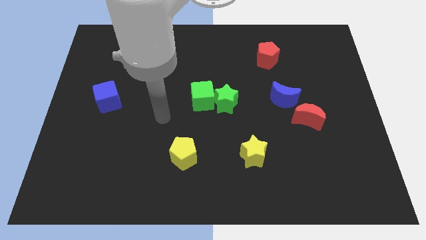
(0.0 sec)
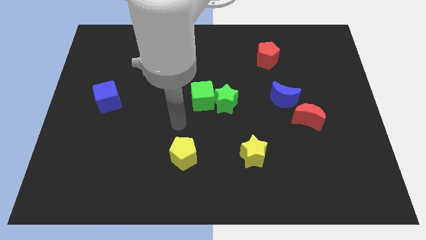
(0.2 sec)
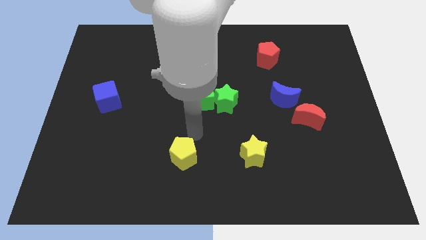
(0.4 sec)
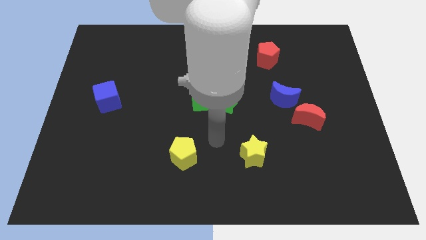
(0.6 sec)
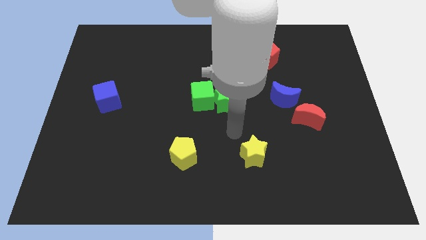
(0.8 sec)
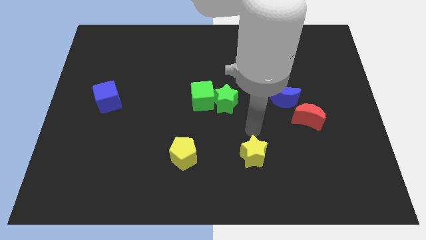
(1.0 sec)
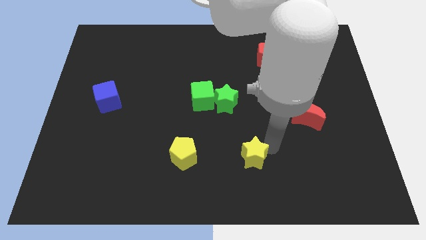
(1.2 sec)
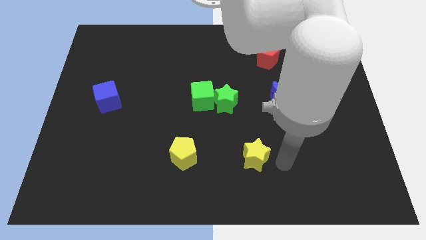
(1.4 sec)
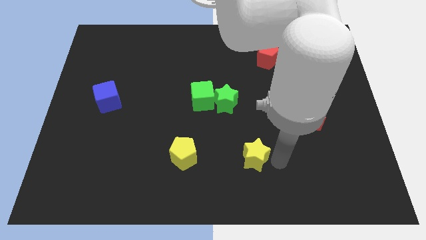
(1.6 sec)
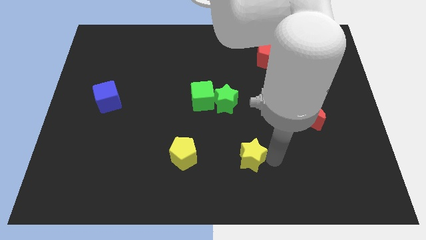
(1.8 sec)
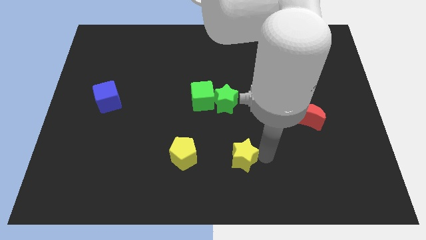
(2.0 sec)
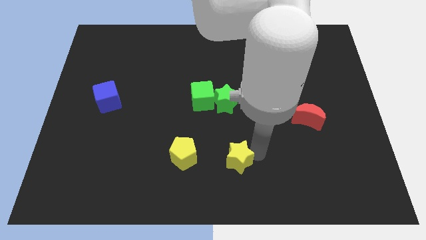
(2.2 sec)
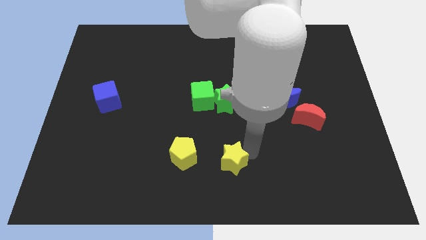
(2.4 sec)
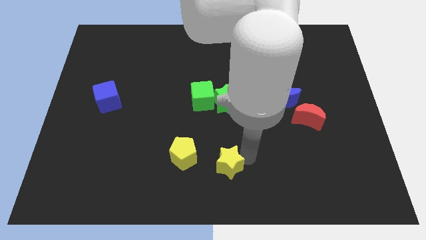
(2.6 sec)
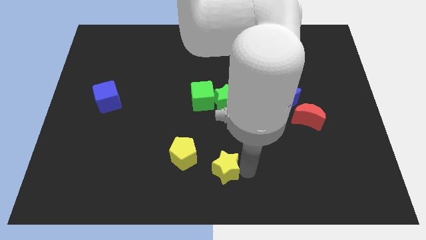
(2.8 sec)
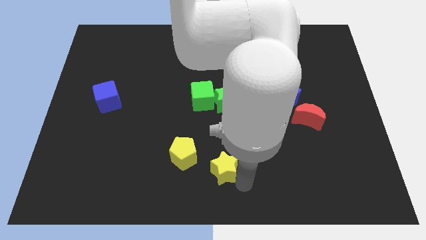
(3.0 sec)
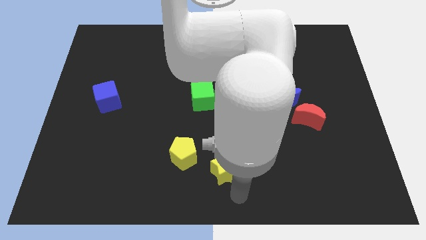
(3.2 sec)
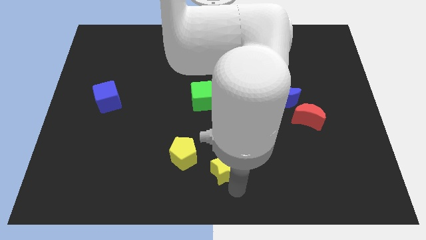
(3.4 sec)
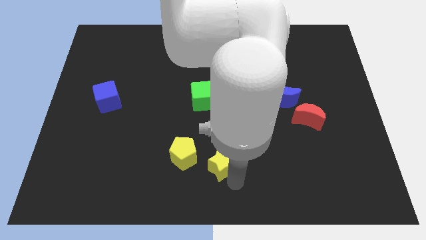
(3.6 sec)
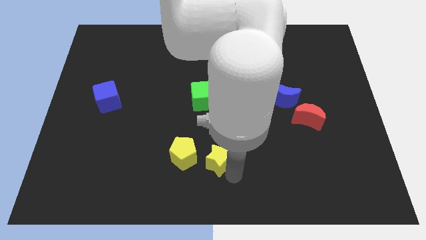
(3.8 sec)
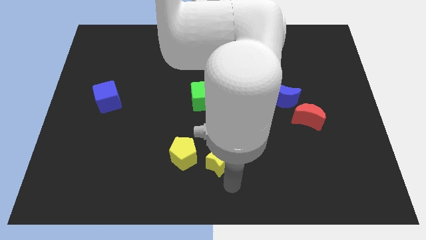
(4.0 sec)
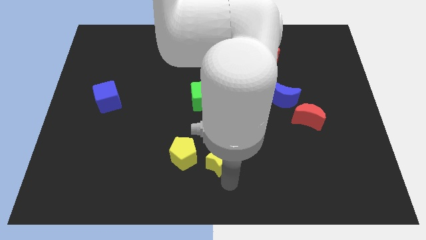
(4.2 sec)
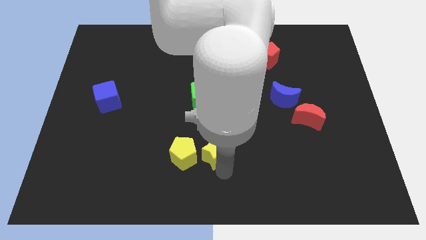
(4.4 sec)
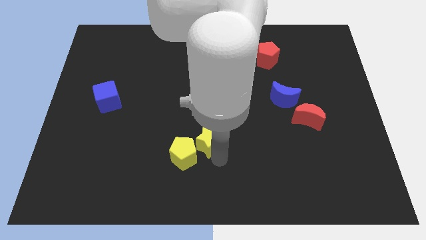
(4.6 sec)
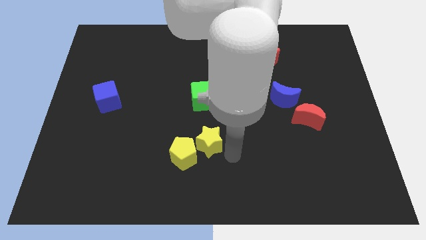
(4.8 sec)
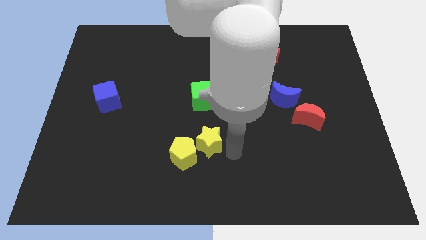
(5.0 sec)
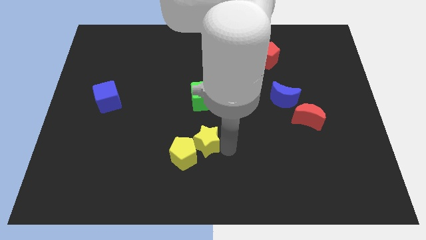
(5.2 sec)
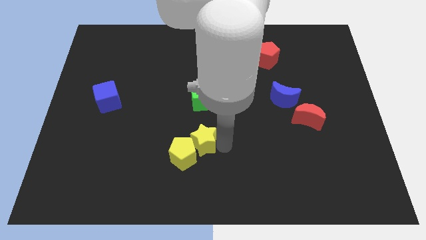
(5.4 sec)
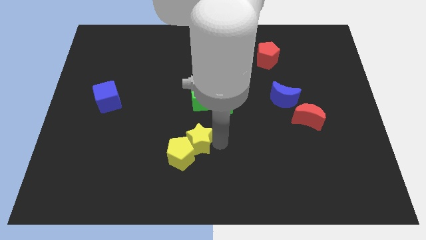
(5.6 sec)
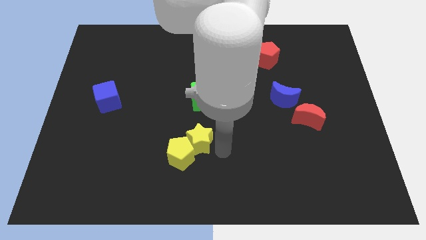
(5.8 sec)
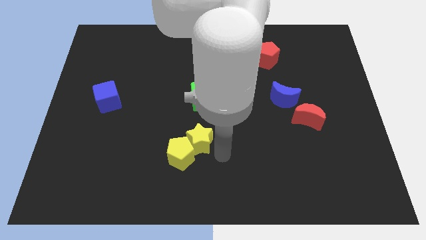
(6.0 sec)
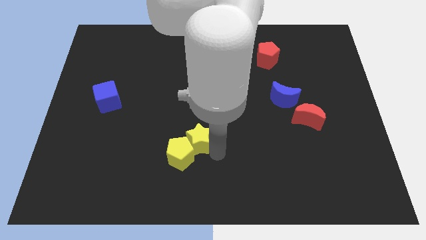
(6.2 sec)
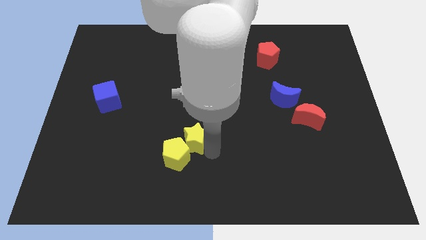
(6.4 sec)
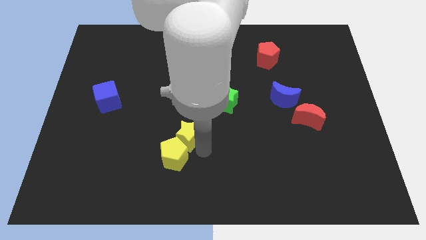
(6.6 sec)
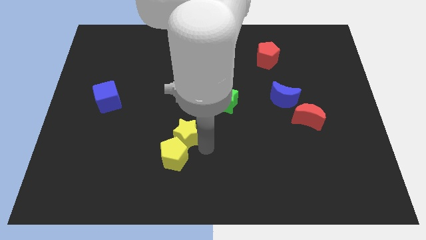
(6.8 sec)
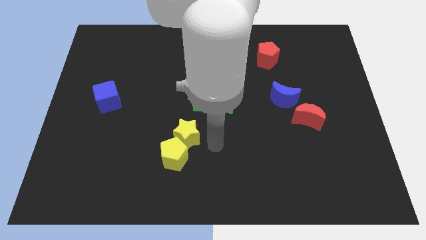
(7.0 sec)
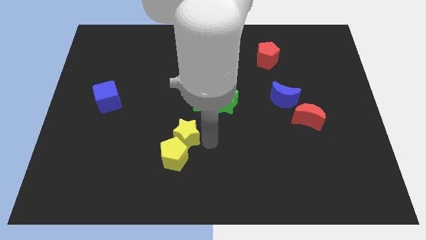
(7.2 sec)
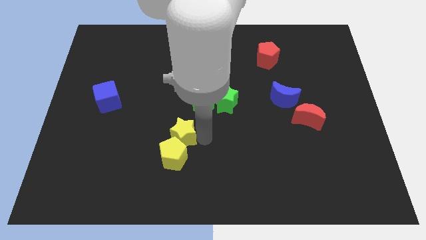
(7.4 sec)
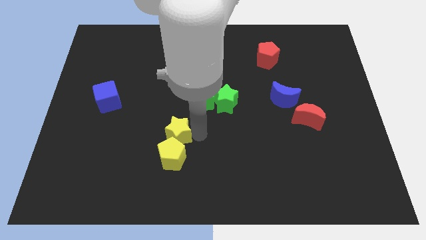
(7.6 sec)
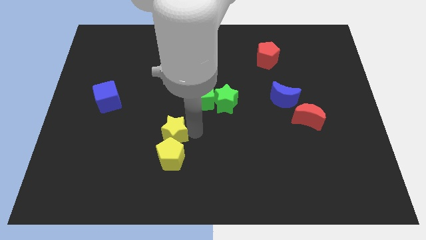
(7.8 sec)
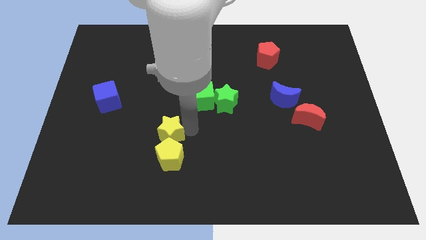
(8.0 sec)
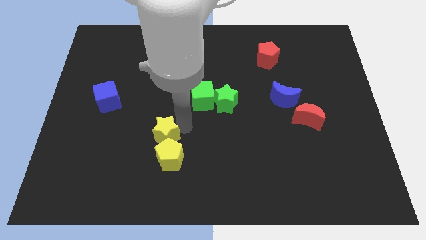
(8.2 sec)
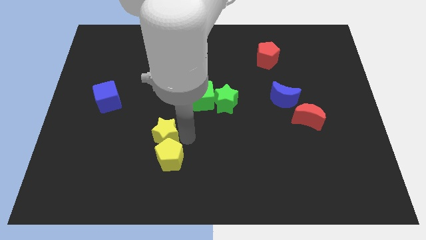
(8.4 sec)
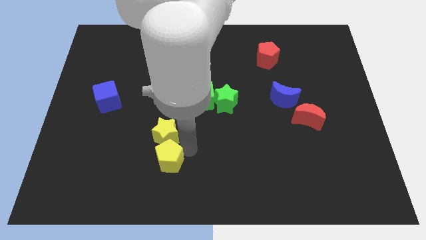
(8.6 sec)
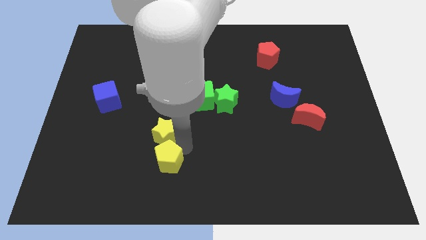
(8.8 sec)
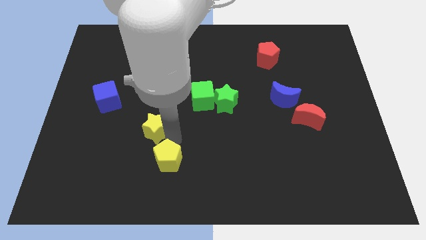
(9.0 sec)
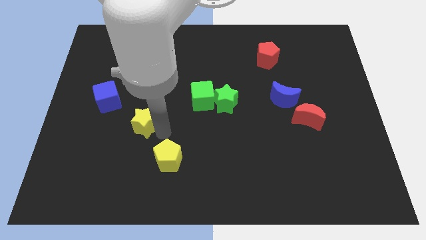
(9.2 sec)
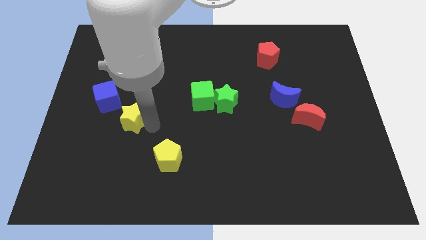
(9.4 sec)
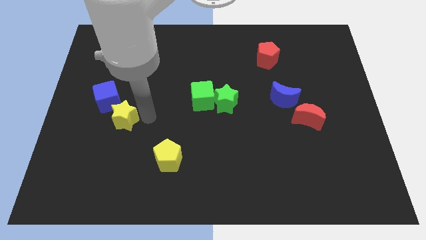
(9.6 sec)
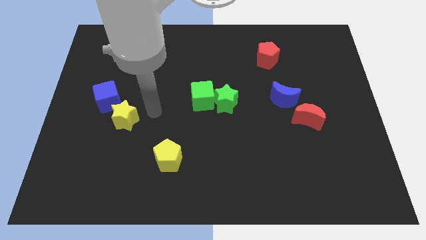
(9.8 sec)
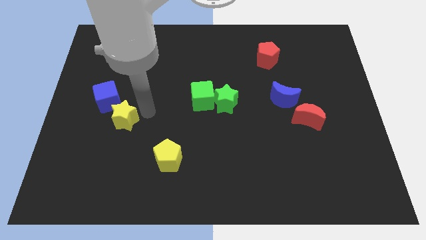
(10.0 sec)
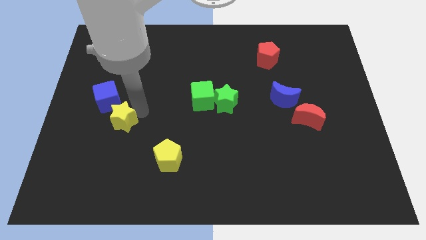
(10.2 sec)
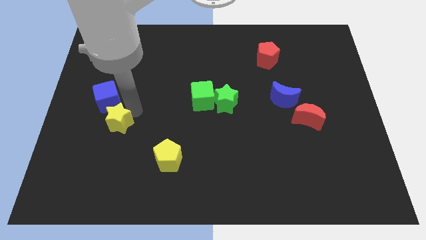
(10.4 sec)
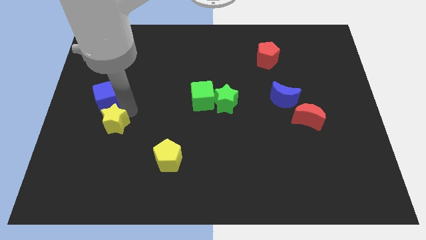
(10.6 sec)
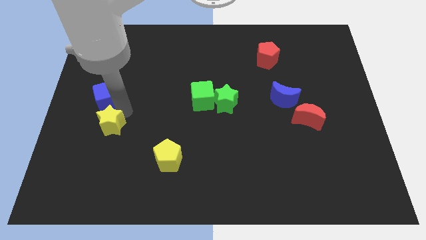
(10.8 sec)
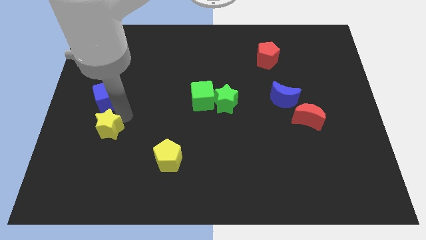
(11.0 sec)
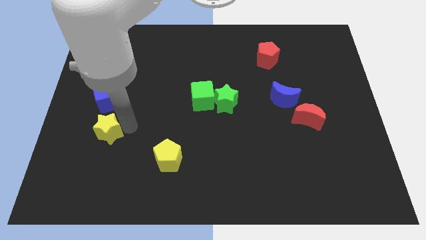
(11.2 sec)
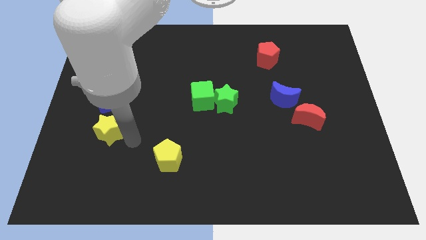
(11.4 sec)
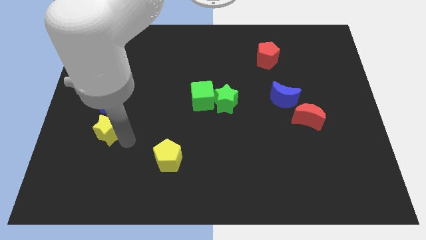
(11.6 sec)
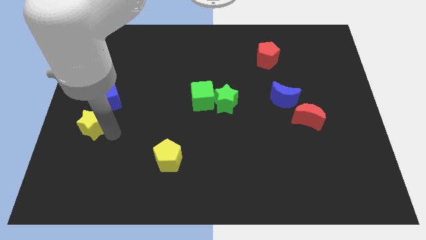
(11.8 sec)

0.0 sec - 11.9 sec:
push the yellow star to the left side

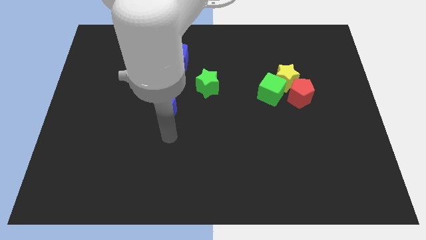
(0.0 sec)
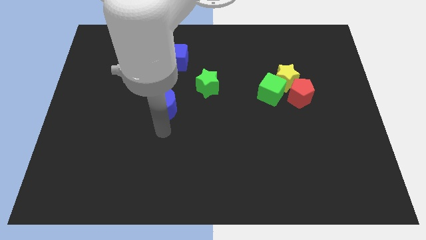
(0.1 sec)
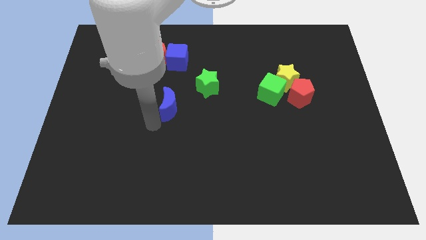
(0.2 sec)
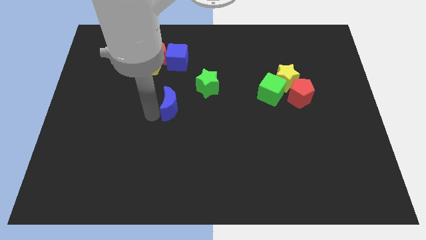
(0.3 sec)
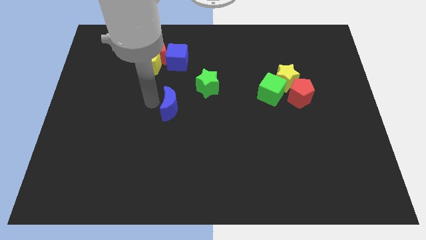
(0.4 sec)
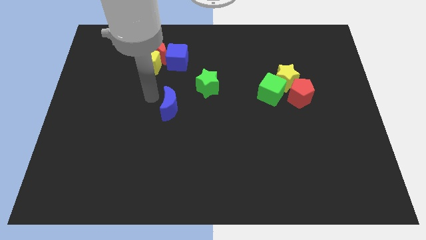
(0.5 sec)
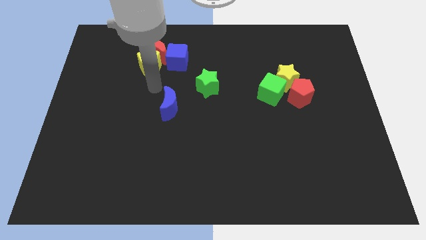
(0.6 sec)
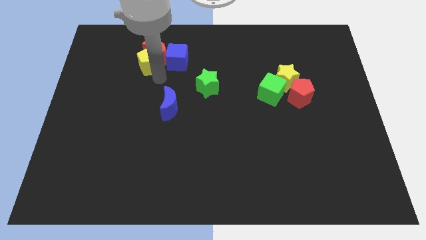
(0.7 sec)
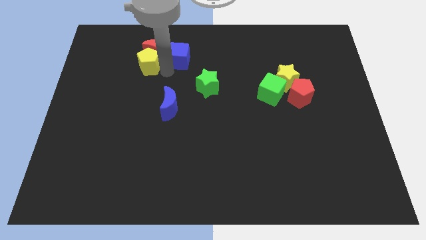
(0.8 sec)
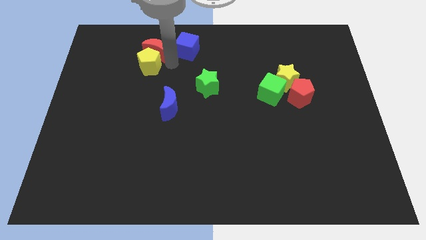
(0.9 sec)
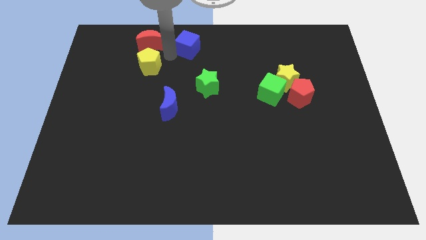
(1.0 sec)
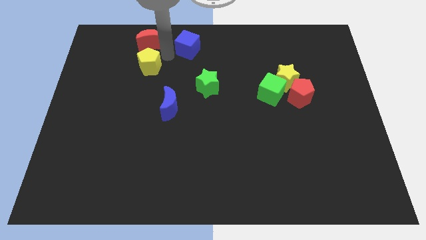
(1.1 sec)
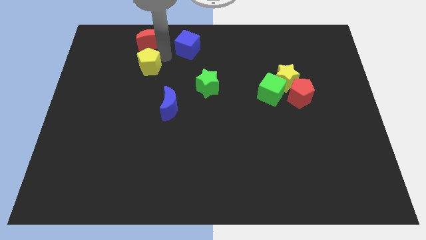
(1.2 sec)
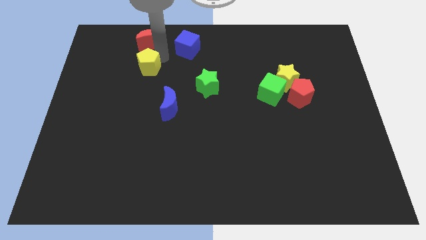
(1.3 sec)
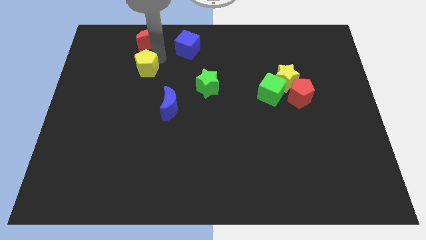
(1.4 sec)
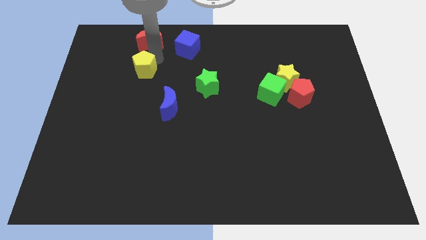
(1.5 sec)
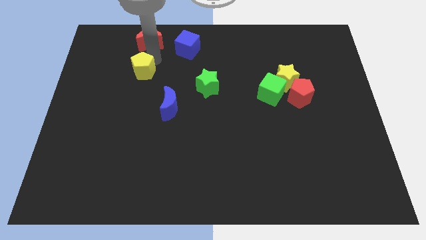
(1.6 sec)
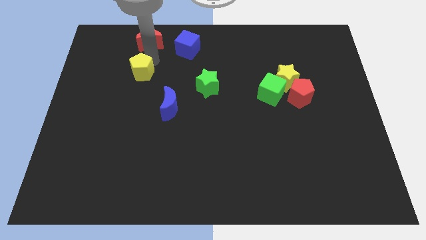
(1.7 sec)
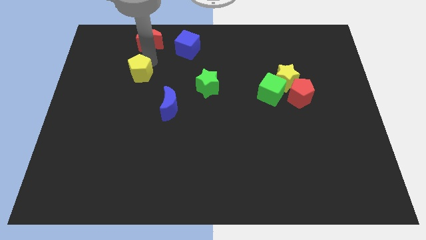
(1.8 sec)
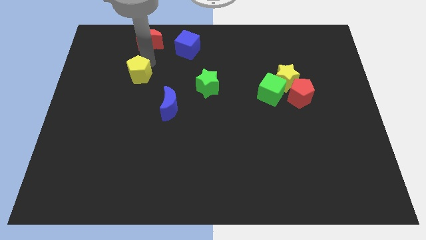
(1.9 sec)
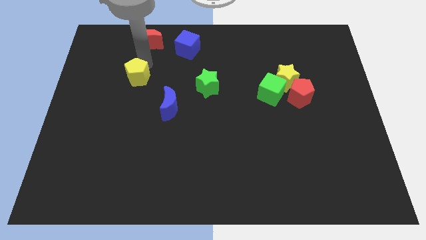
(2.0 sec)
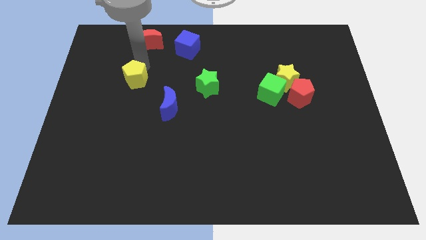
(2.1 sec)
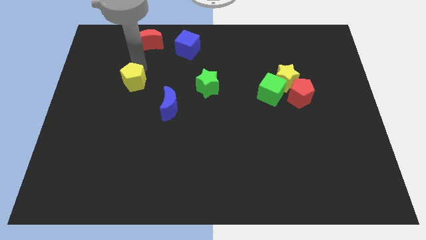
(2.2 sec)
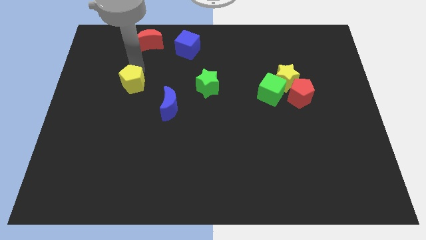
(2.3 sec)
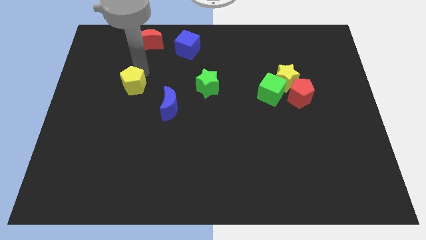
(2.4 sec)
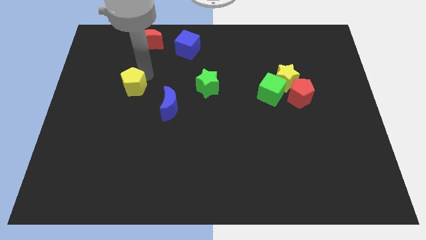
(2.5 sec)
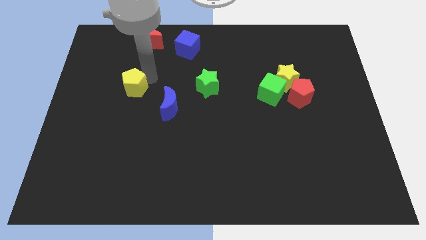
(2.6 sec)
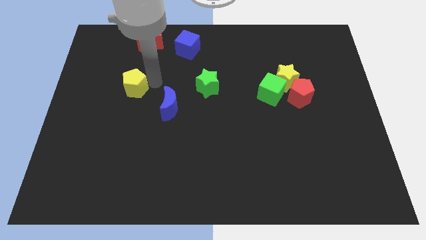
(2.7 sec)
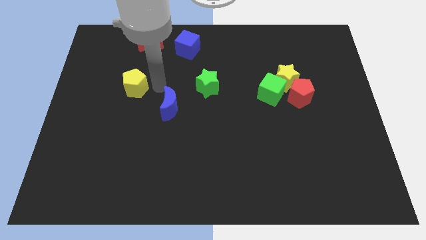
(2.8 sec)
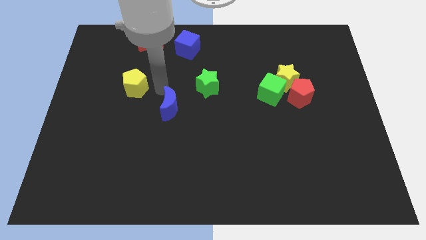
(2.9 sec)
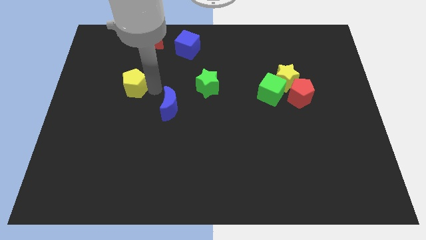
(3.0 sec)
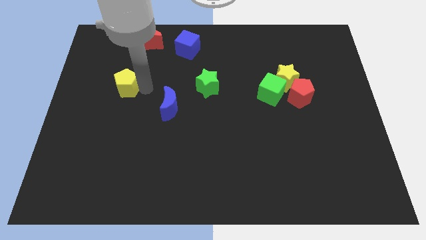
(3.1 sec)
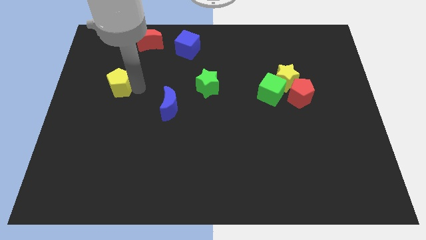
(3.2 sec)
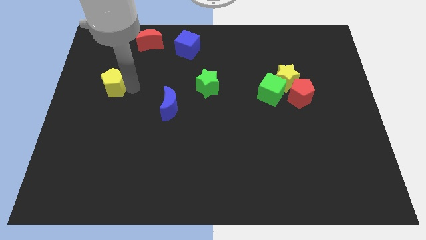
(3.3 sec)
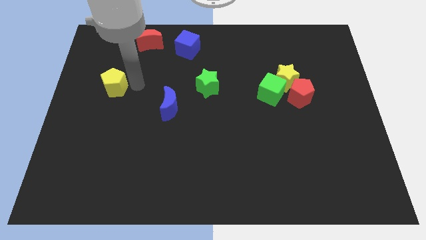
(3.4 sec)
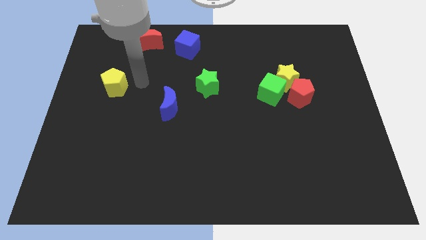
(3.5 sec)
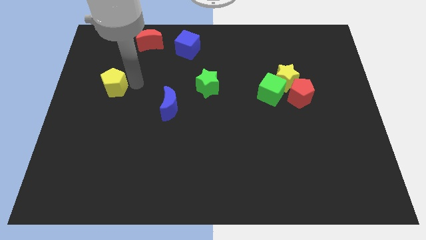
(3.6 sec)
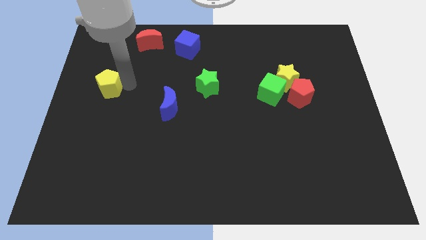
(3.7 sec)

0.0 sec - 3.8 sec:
slide the yellow pentagon to the left side
